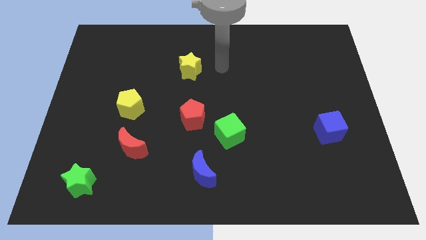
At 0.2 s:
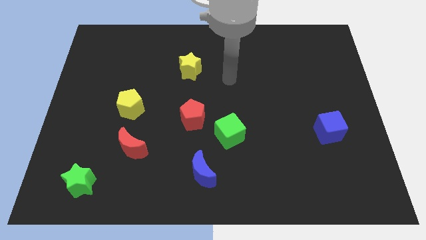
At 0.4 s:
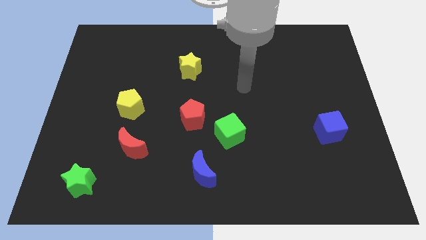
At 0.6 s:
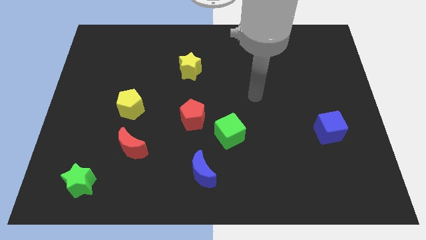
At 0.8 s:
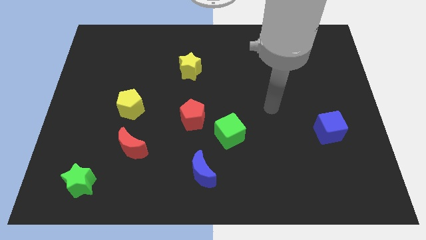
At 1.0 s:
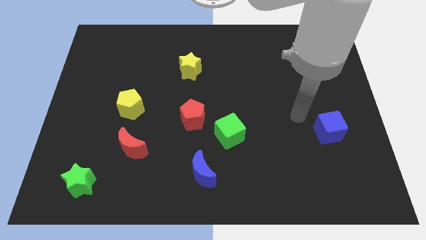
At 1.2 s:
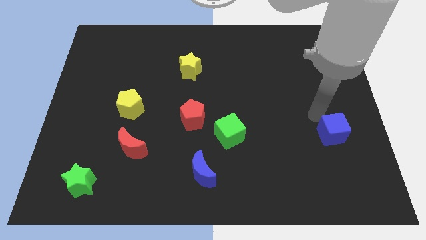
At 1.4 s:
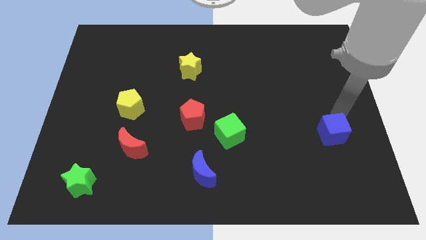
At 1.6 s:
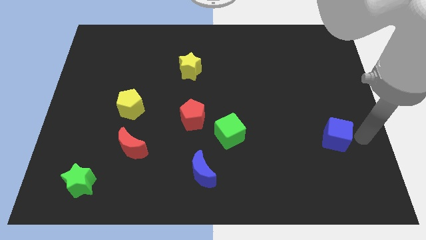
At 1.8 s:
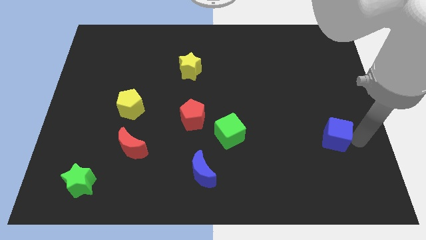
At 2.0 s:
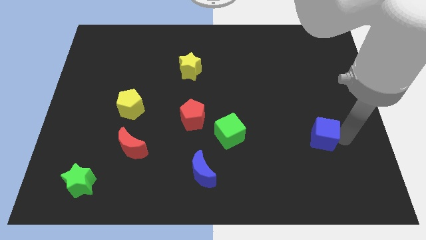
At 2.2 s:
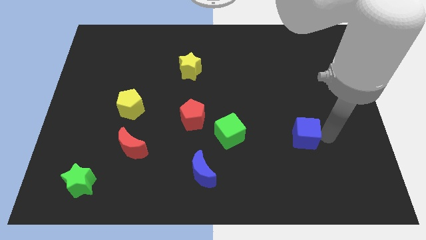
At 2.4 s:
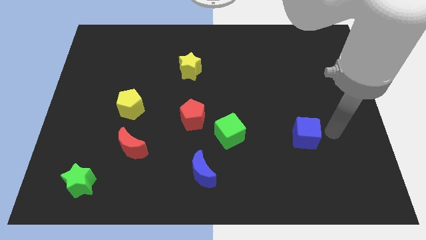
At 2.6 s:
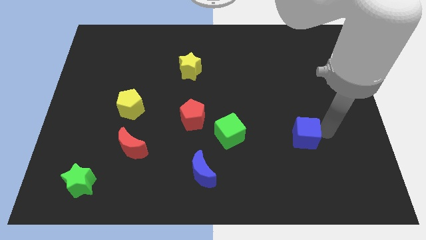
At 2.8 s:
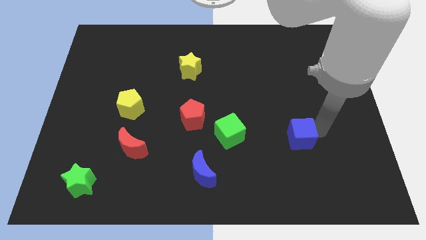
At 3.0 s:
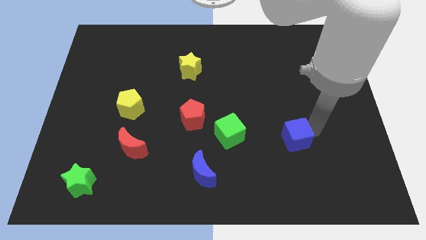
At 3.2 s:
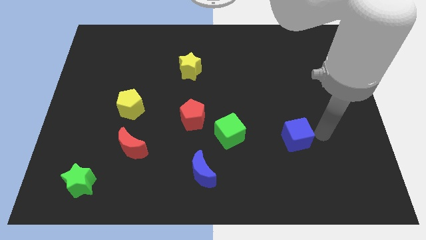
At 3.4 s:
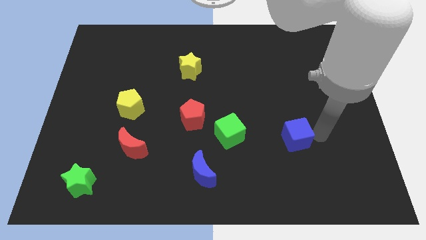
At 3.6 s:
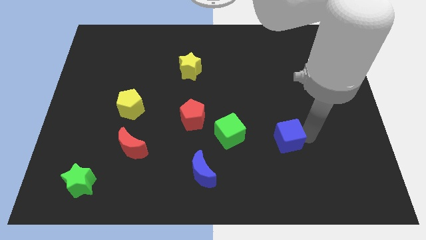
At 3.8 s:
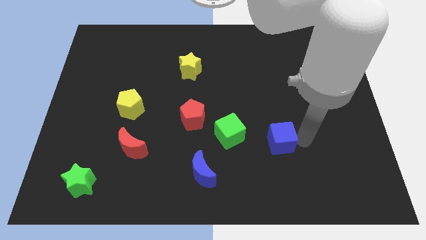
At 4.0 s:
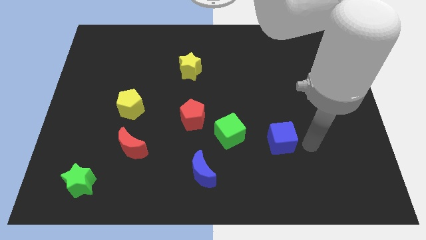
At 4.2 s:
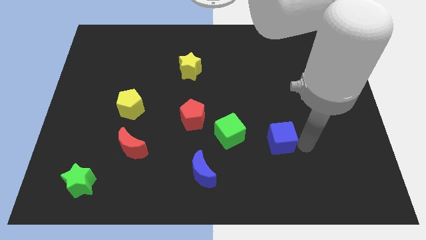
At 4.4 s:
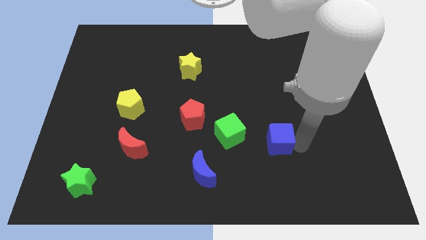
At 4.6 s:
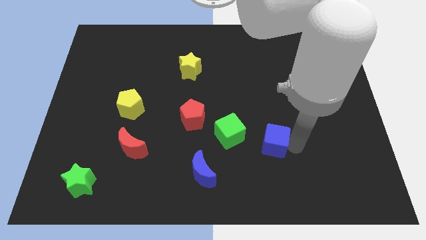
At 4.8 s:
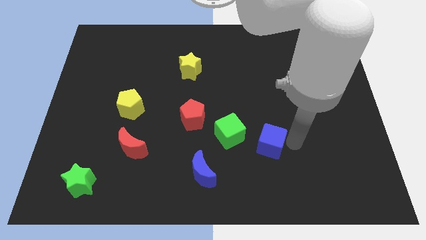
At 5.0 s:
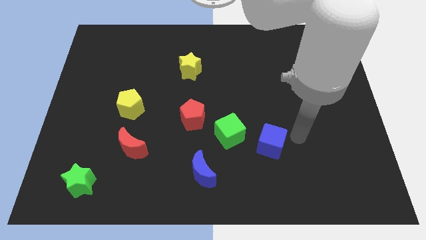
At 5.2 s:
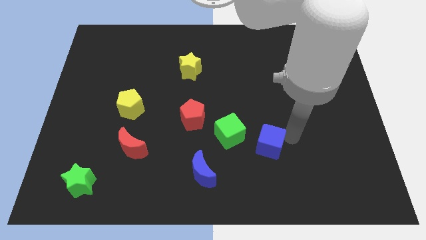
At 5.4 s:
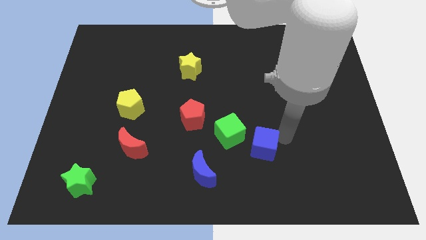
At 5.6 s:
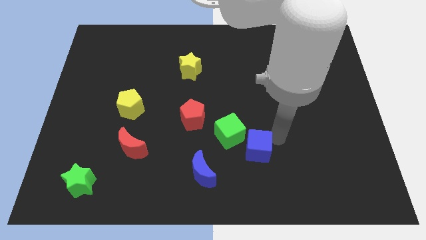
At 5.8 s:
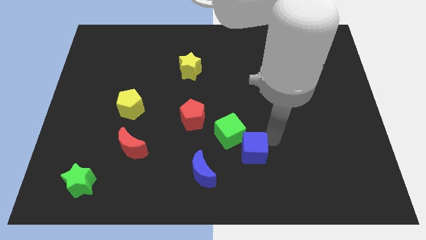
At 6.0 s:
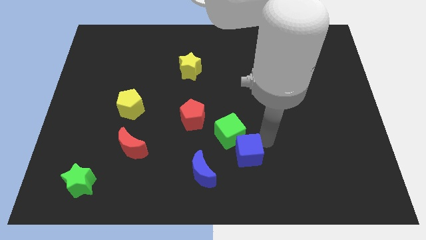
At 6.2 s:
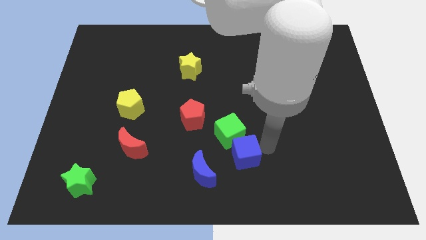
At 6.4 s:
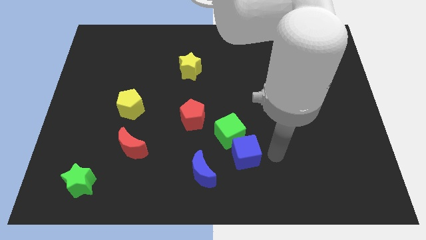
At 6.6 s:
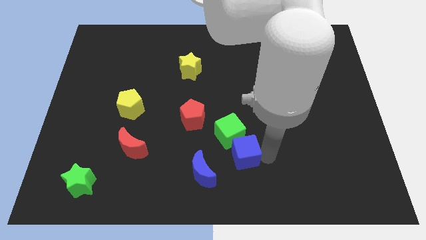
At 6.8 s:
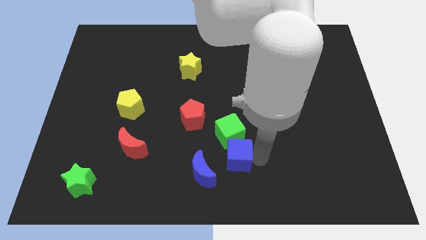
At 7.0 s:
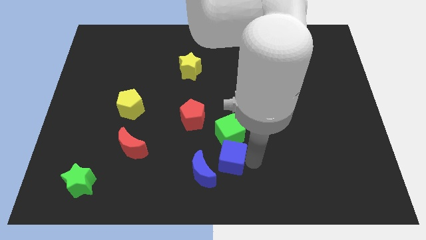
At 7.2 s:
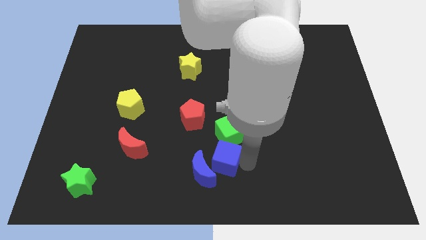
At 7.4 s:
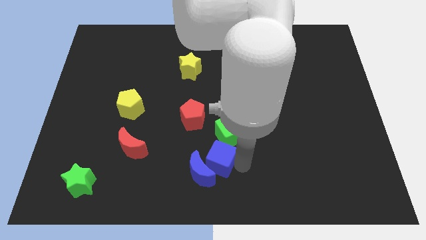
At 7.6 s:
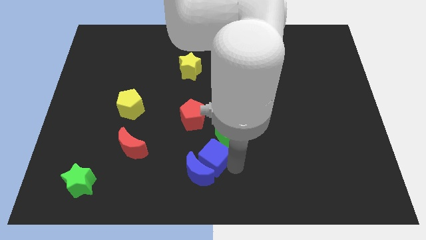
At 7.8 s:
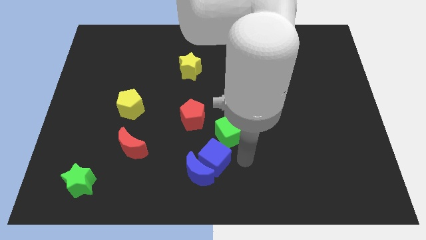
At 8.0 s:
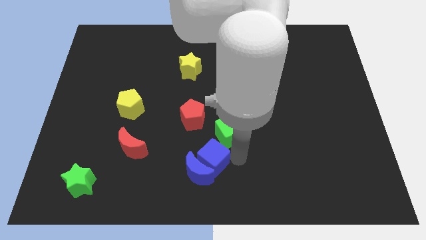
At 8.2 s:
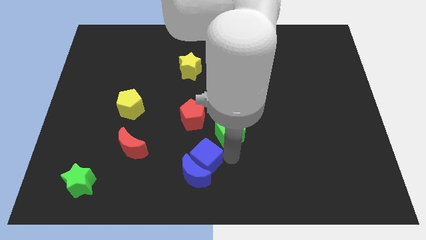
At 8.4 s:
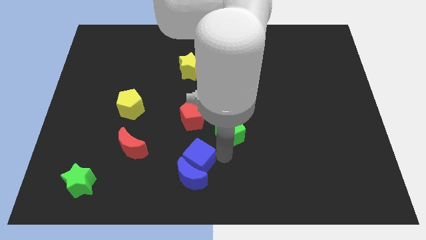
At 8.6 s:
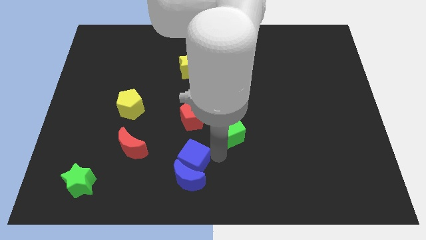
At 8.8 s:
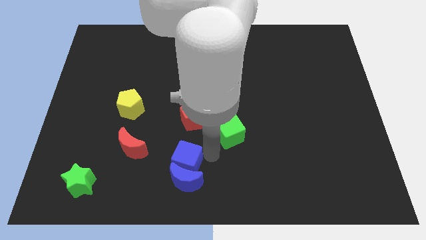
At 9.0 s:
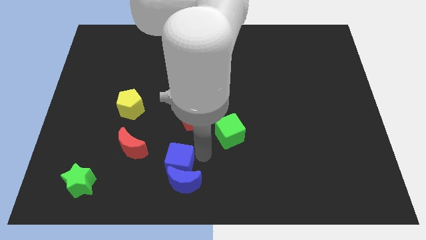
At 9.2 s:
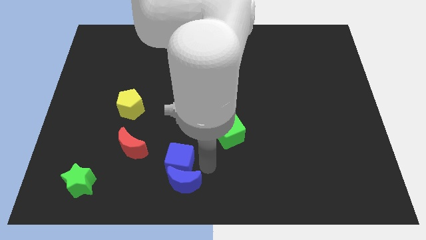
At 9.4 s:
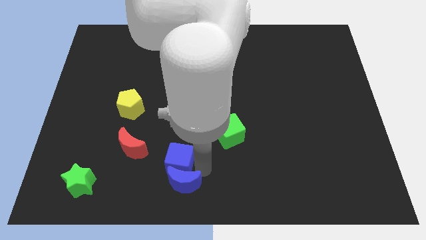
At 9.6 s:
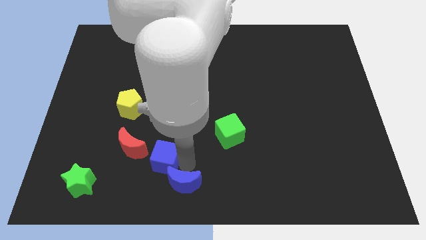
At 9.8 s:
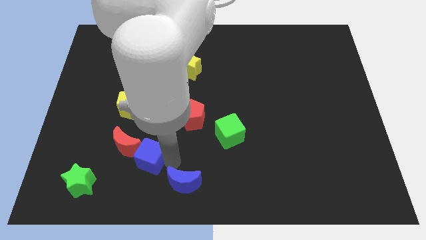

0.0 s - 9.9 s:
push the blue cube next to the red moon

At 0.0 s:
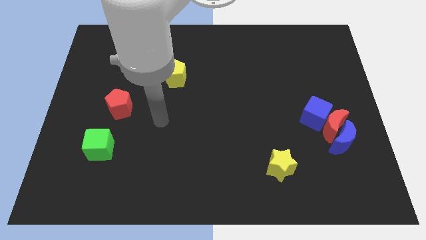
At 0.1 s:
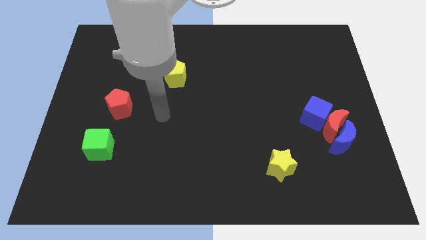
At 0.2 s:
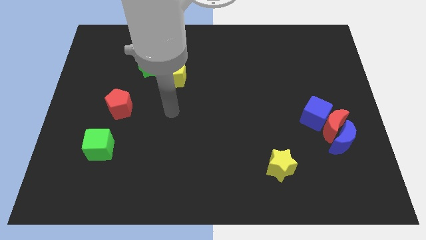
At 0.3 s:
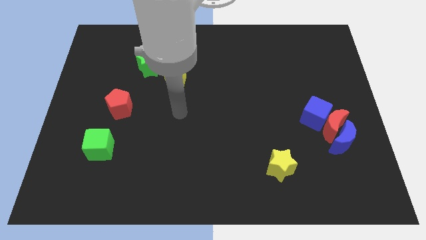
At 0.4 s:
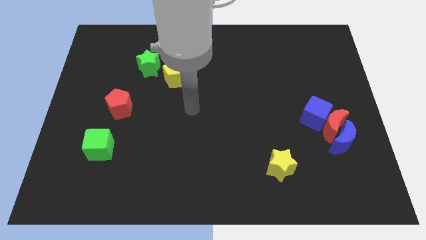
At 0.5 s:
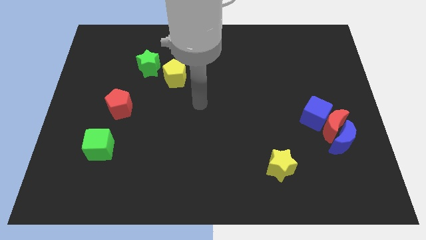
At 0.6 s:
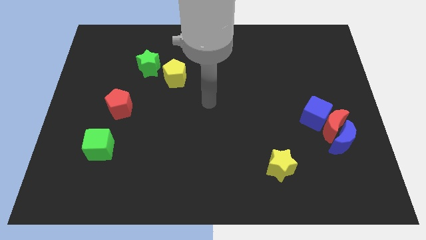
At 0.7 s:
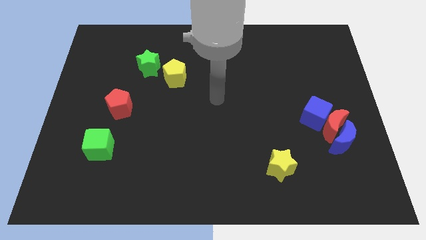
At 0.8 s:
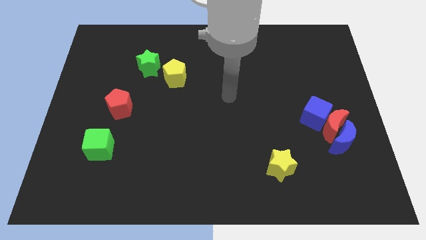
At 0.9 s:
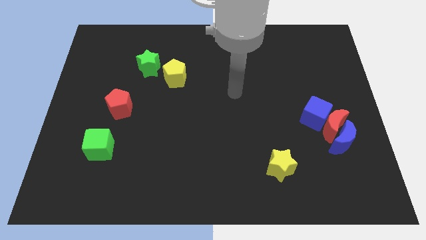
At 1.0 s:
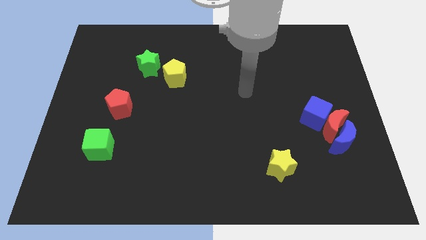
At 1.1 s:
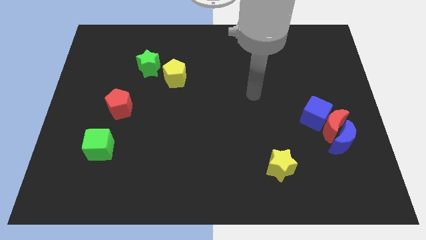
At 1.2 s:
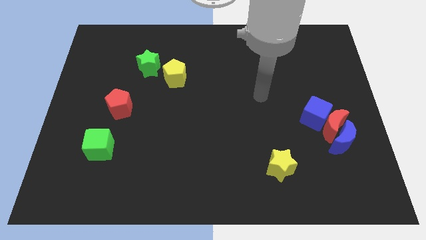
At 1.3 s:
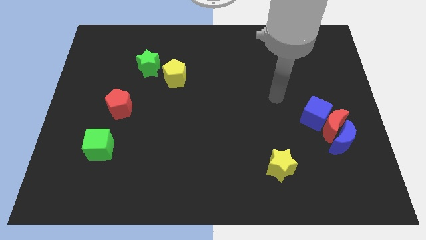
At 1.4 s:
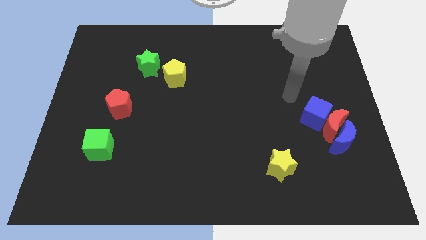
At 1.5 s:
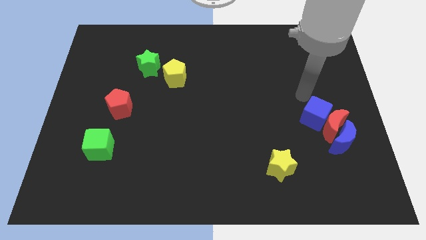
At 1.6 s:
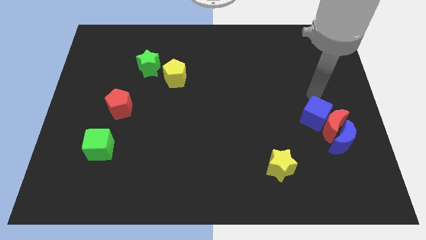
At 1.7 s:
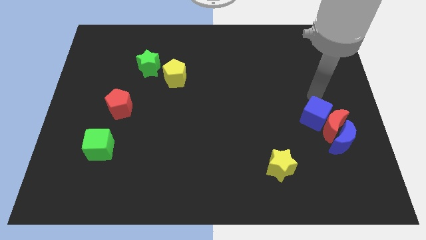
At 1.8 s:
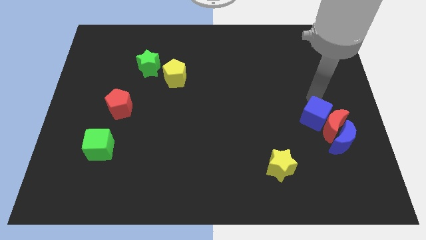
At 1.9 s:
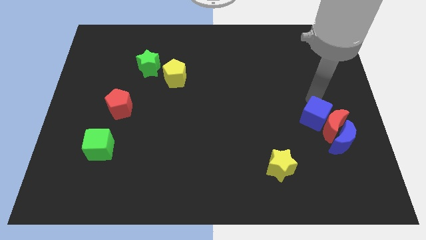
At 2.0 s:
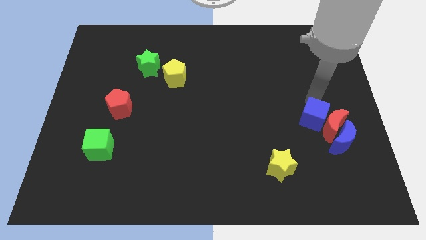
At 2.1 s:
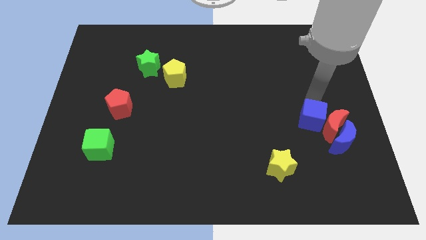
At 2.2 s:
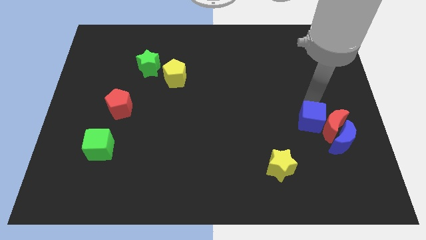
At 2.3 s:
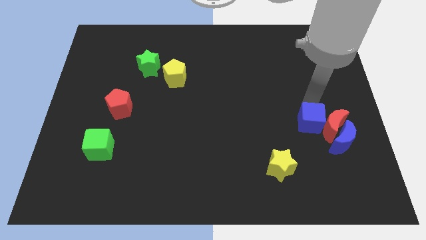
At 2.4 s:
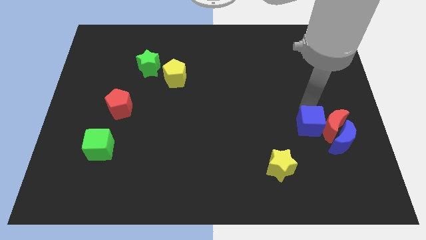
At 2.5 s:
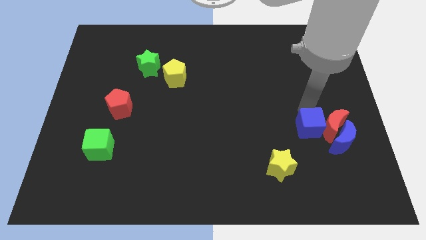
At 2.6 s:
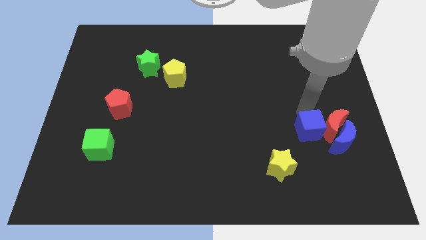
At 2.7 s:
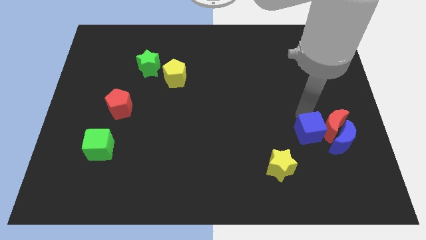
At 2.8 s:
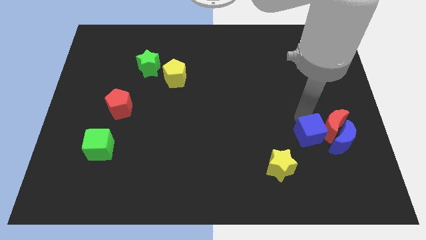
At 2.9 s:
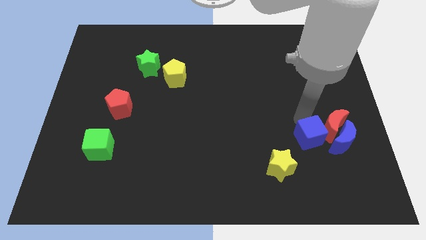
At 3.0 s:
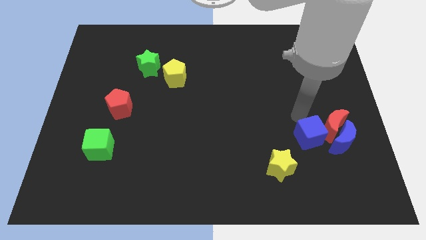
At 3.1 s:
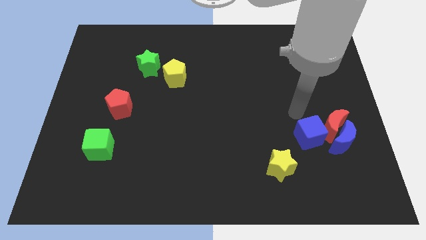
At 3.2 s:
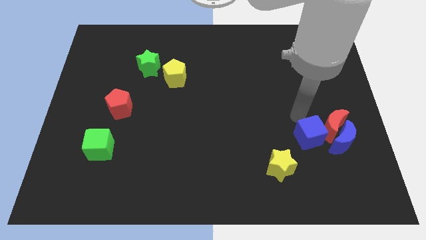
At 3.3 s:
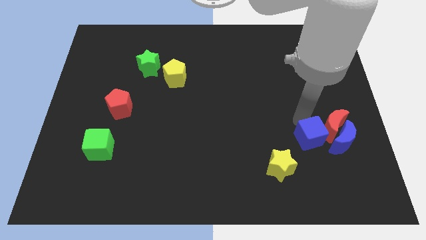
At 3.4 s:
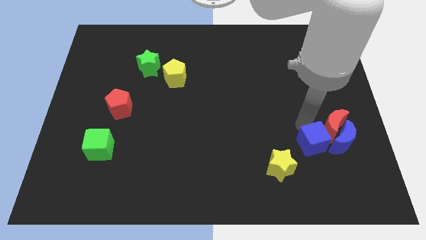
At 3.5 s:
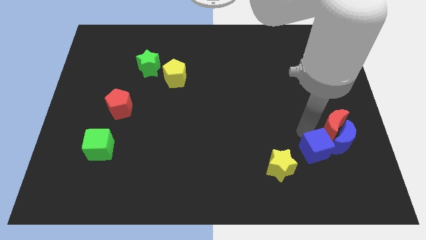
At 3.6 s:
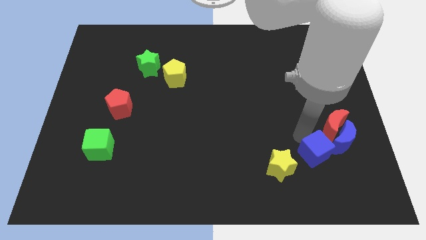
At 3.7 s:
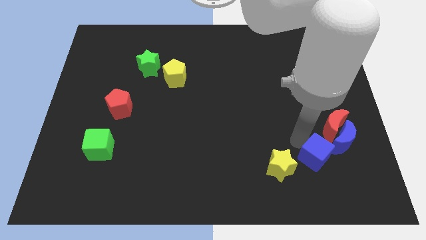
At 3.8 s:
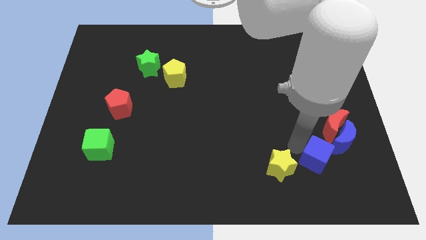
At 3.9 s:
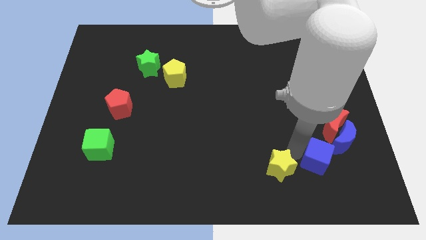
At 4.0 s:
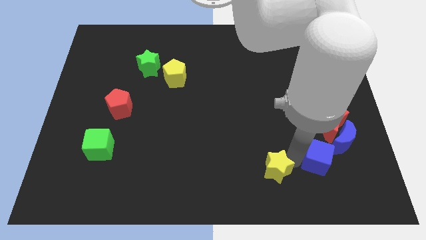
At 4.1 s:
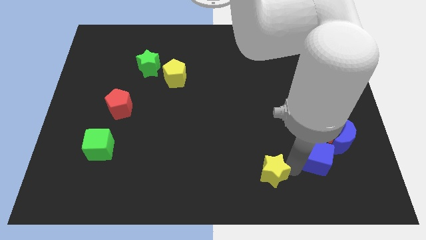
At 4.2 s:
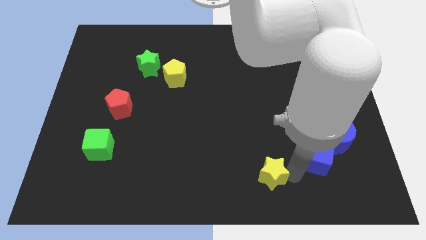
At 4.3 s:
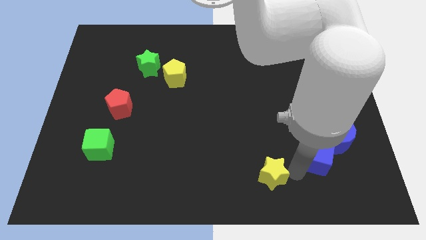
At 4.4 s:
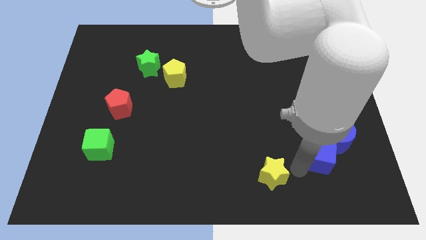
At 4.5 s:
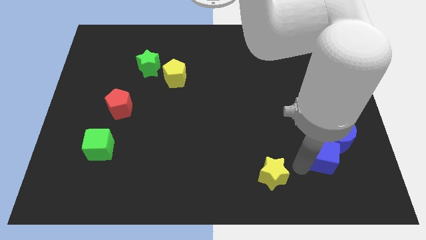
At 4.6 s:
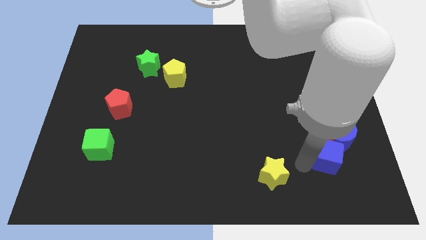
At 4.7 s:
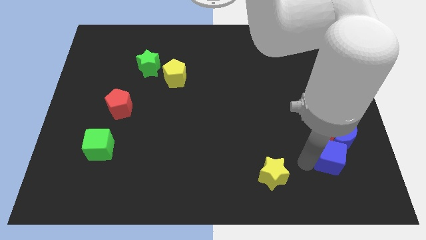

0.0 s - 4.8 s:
move the blue cube to the blue moon
